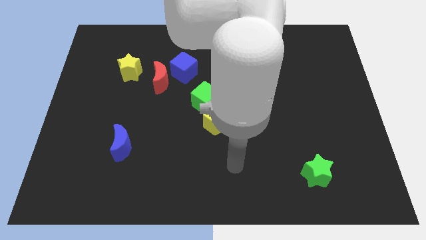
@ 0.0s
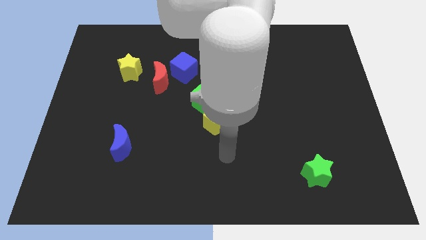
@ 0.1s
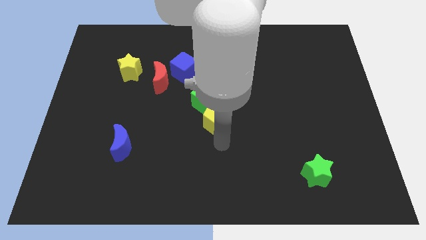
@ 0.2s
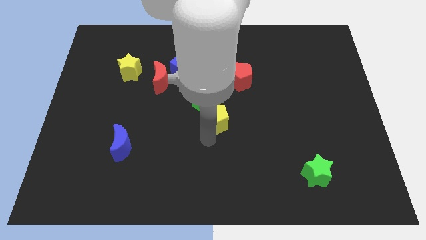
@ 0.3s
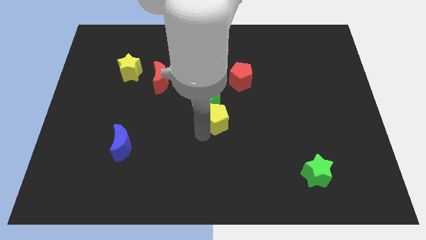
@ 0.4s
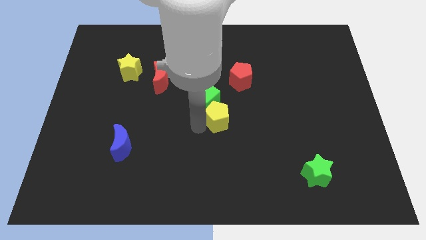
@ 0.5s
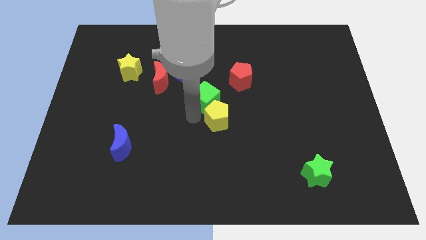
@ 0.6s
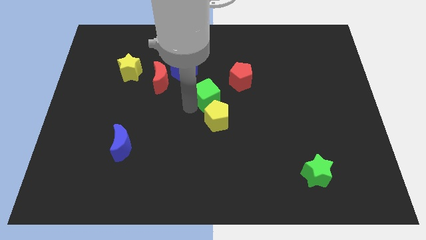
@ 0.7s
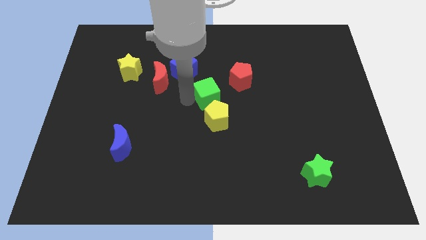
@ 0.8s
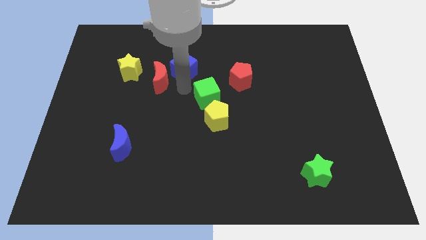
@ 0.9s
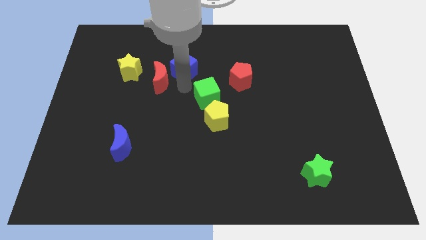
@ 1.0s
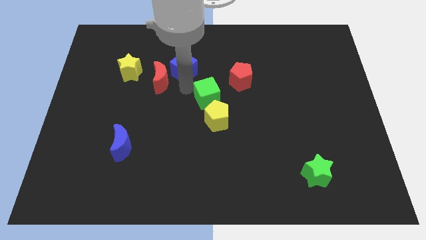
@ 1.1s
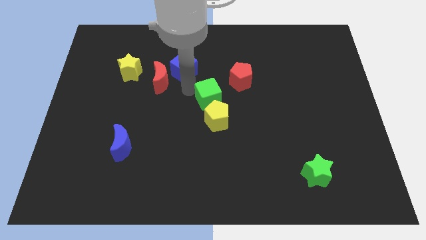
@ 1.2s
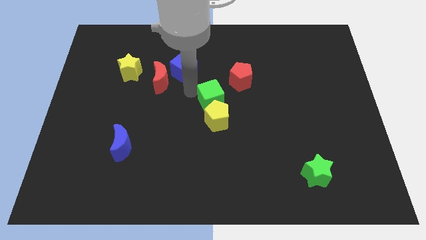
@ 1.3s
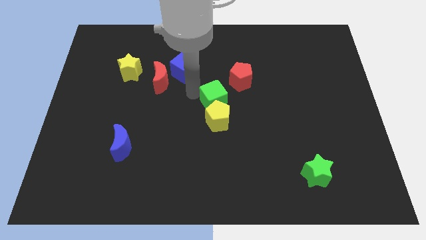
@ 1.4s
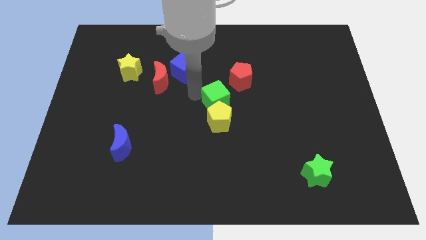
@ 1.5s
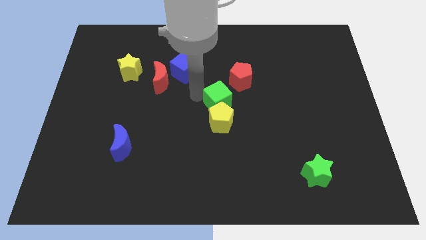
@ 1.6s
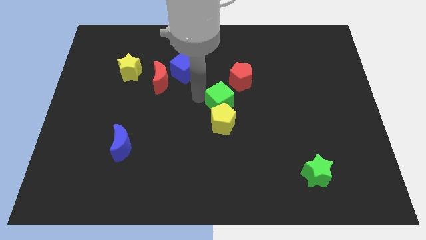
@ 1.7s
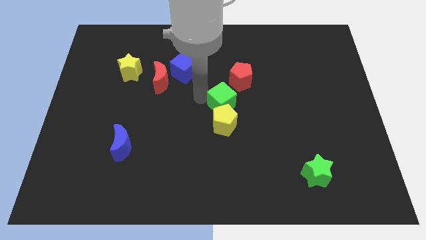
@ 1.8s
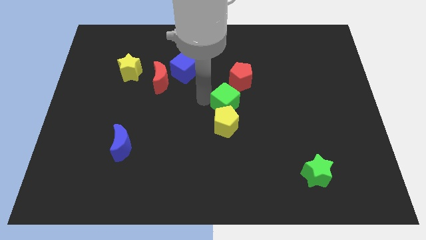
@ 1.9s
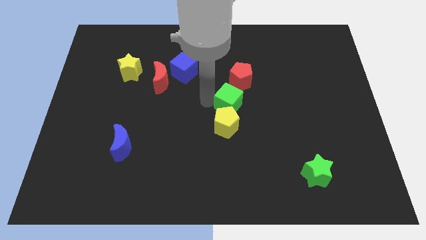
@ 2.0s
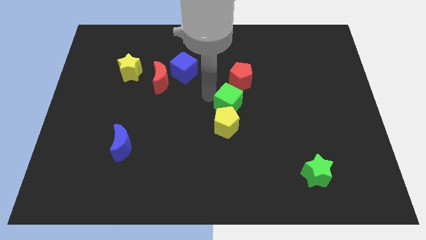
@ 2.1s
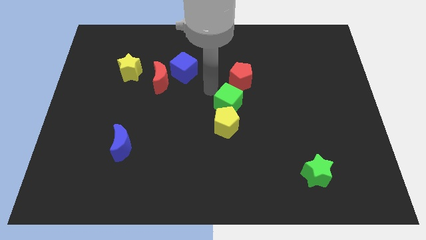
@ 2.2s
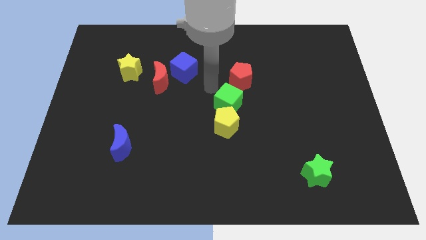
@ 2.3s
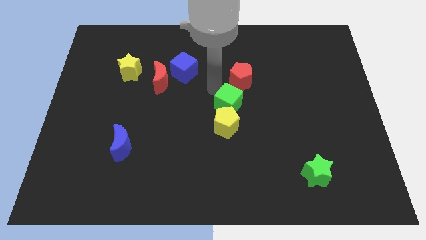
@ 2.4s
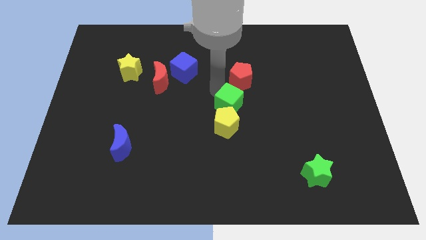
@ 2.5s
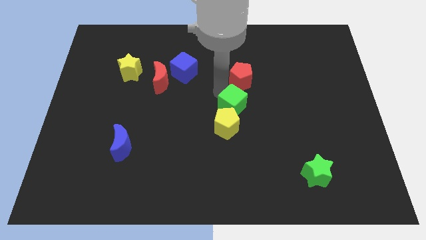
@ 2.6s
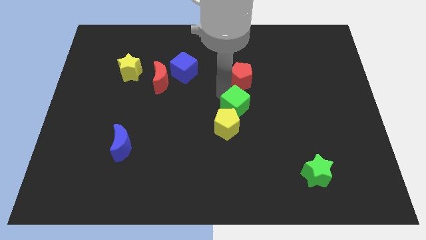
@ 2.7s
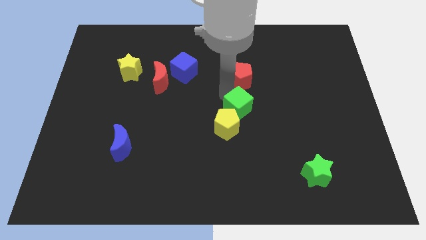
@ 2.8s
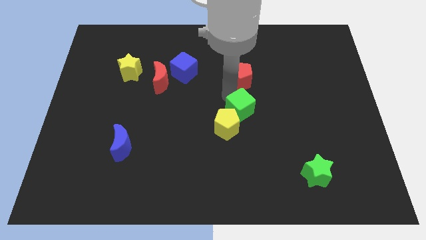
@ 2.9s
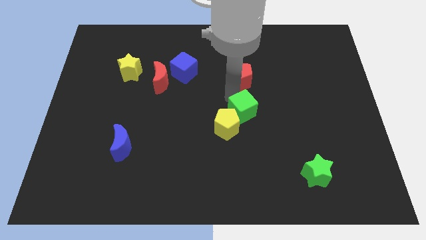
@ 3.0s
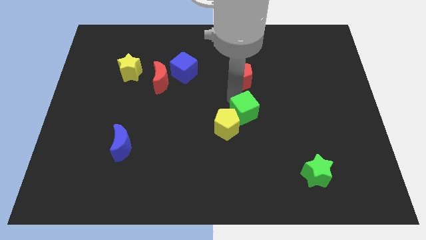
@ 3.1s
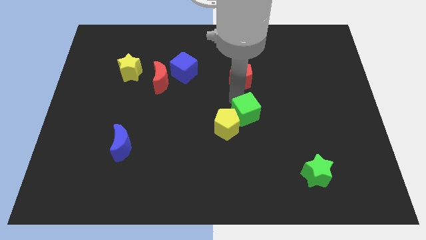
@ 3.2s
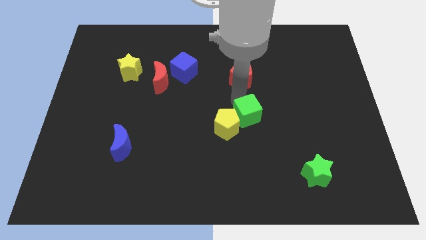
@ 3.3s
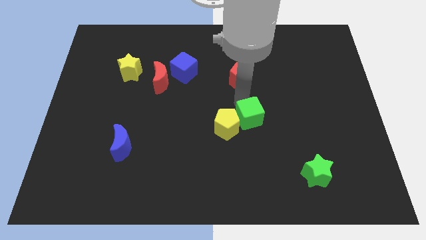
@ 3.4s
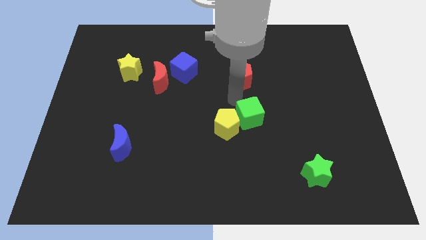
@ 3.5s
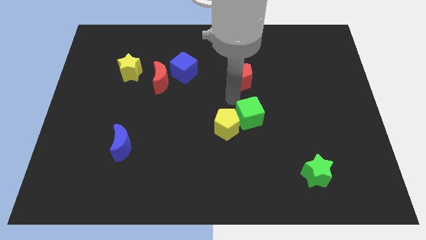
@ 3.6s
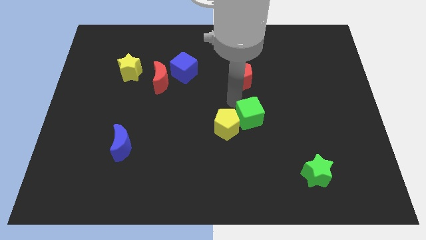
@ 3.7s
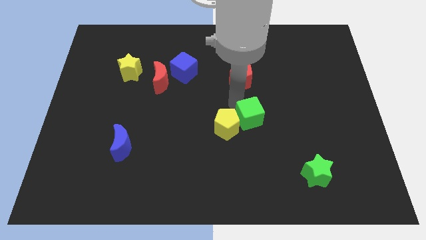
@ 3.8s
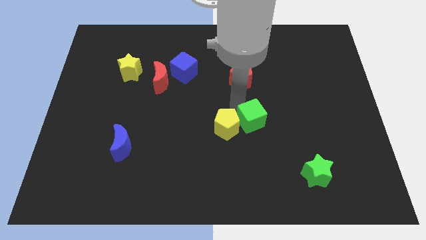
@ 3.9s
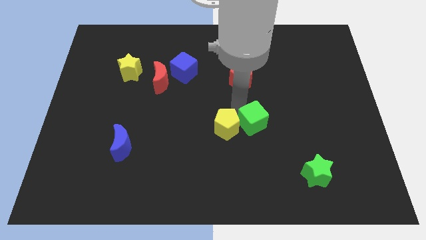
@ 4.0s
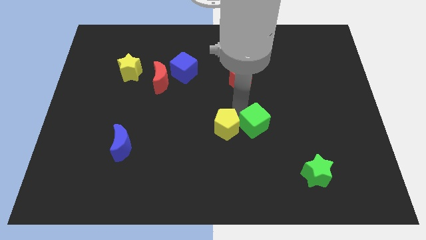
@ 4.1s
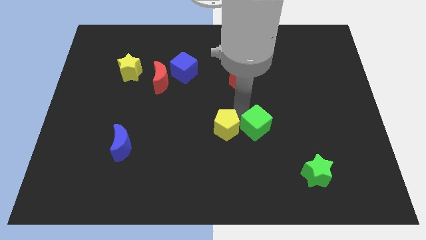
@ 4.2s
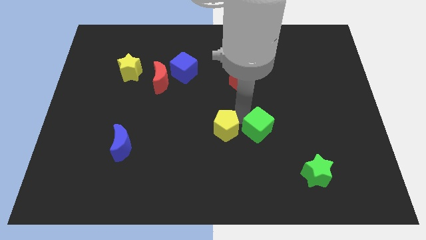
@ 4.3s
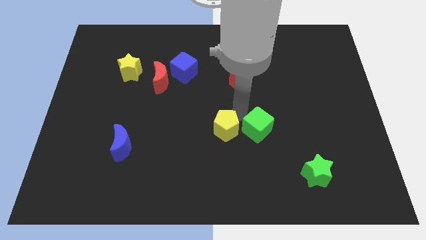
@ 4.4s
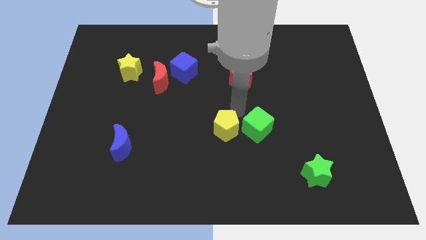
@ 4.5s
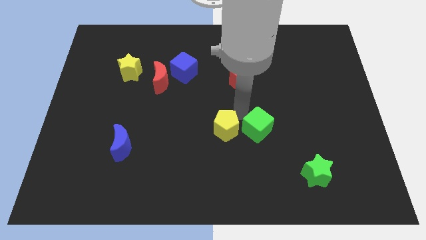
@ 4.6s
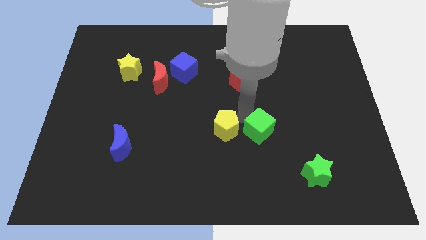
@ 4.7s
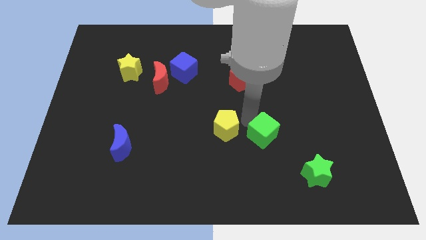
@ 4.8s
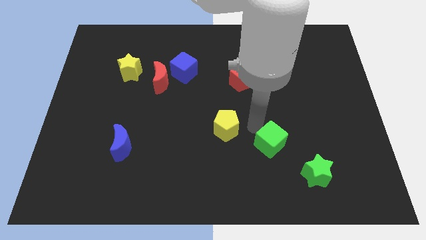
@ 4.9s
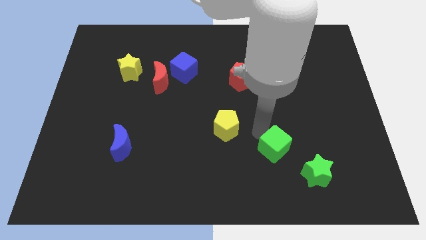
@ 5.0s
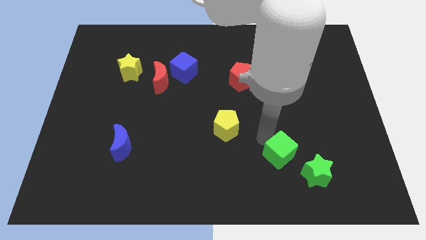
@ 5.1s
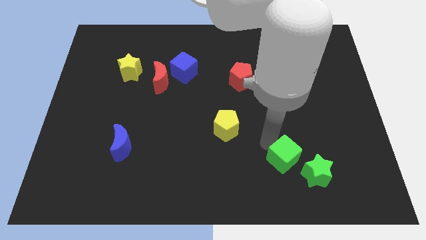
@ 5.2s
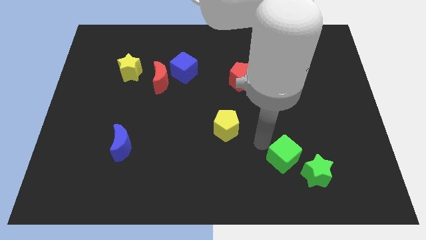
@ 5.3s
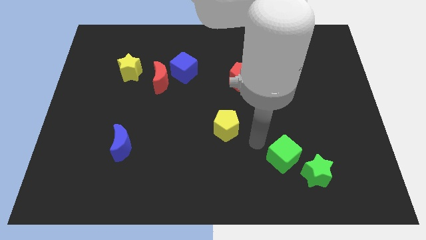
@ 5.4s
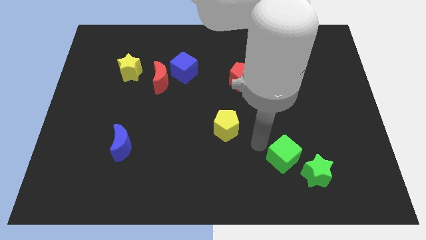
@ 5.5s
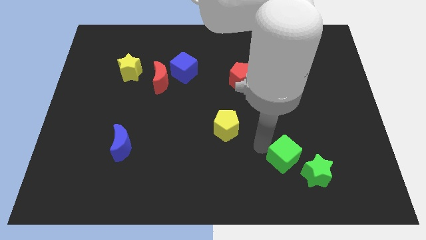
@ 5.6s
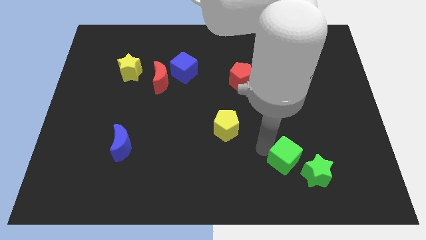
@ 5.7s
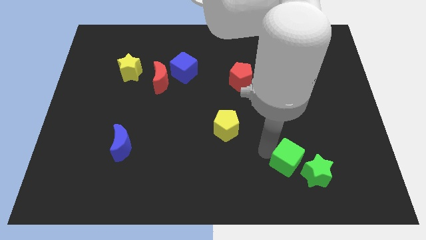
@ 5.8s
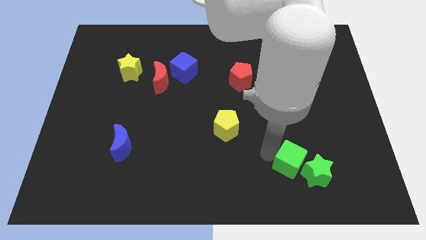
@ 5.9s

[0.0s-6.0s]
move the green cube to the green star

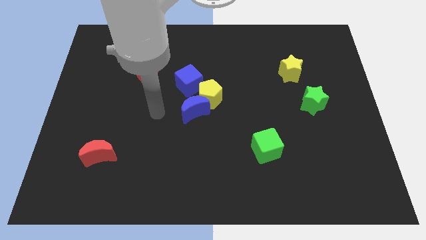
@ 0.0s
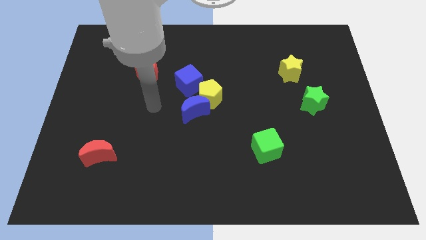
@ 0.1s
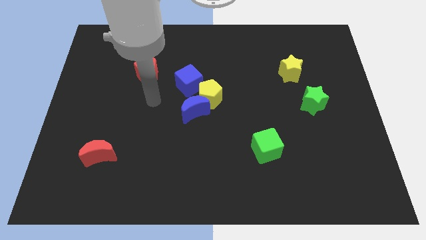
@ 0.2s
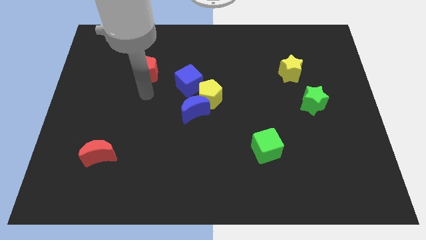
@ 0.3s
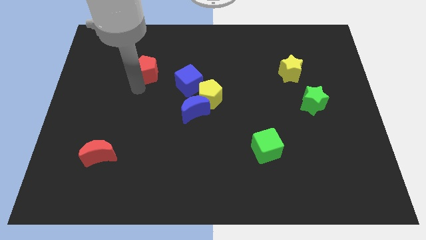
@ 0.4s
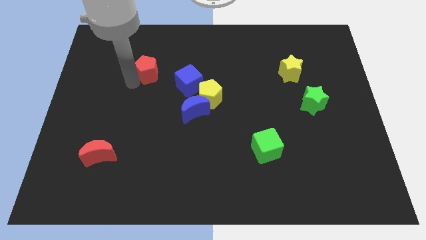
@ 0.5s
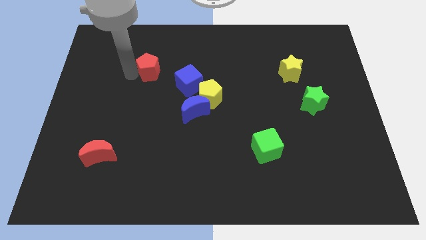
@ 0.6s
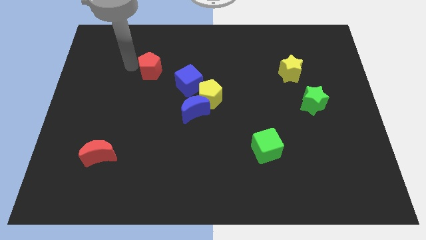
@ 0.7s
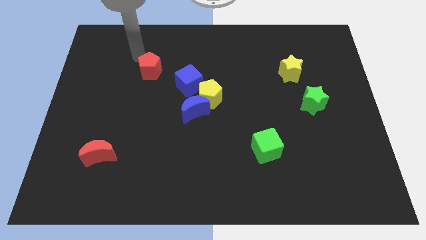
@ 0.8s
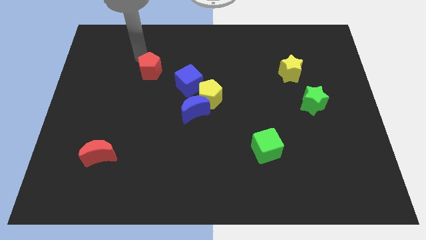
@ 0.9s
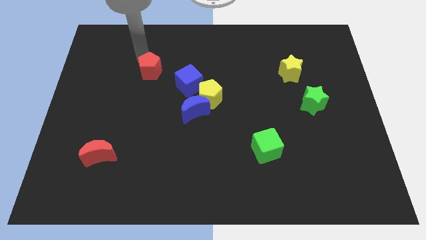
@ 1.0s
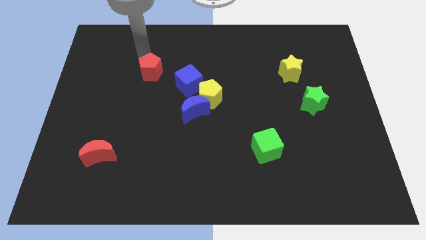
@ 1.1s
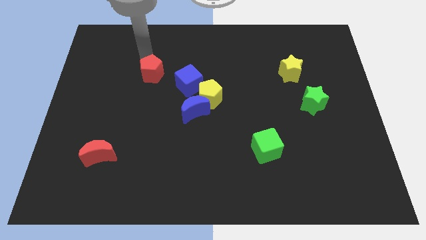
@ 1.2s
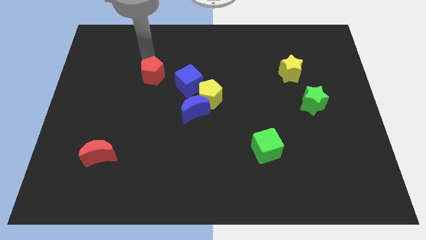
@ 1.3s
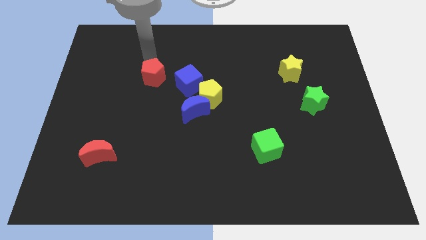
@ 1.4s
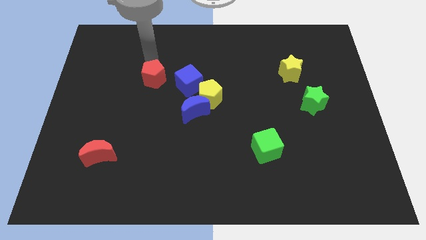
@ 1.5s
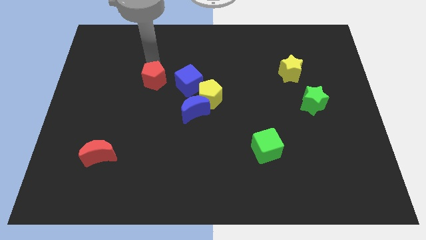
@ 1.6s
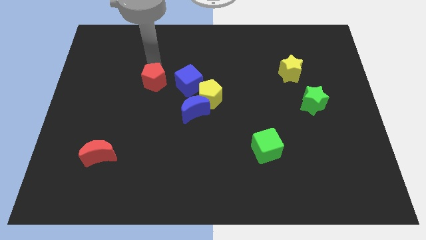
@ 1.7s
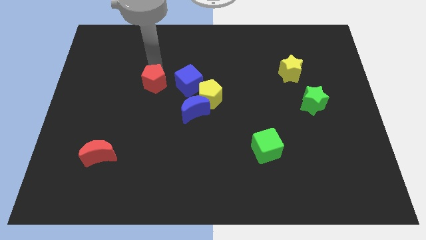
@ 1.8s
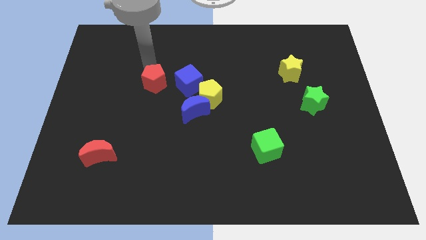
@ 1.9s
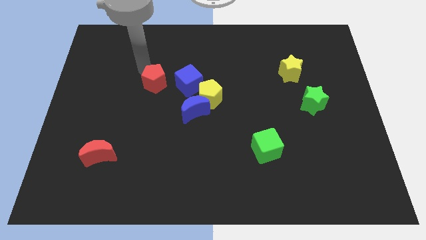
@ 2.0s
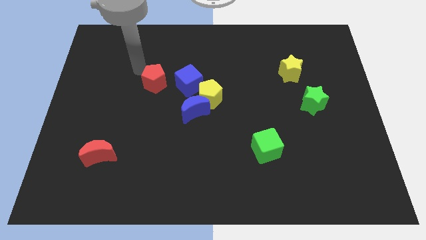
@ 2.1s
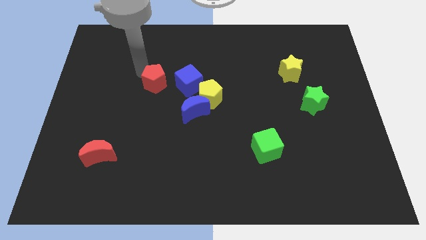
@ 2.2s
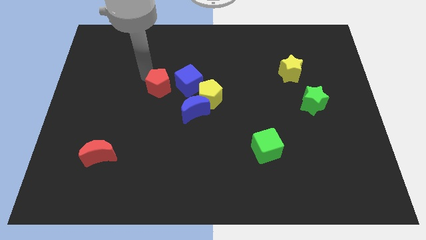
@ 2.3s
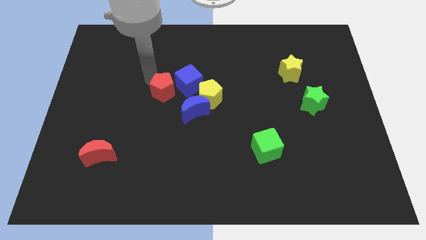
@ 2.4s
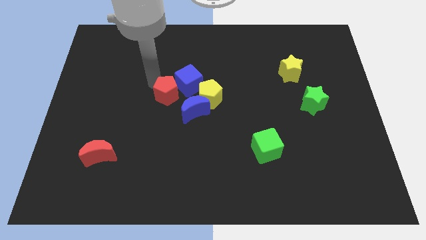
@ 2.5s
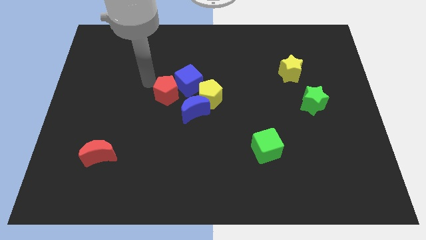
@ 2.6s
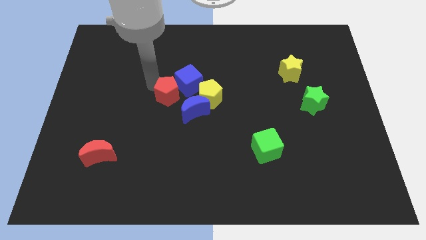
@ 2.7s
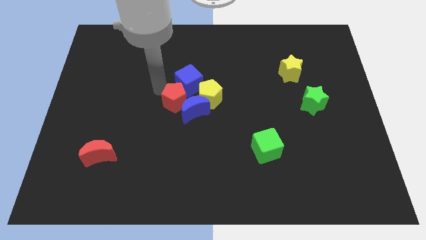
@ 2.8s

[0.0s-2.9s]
move the red pentagon next to the blue moon
